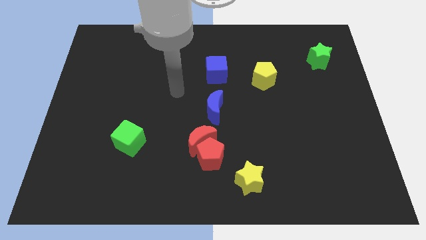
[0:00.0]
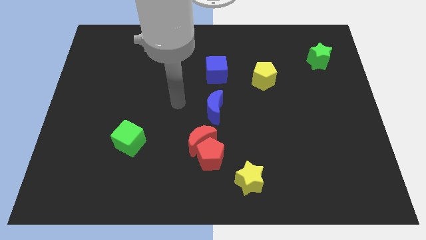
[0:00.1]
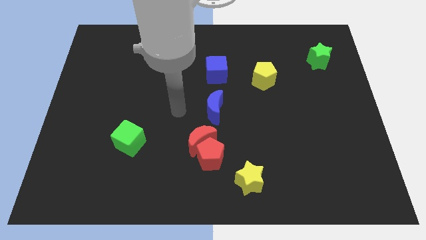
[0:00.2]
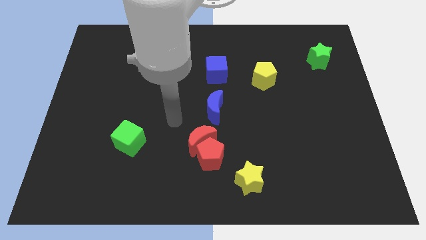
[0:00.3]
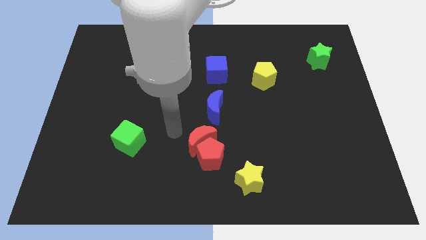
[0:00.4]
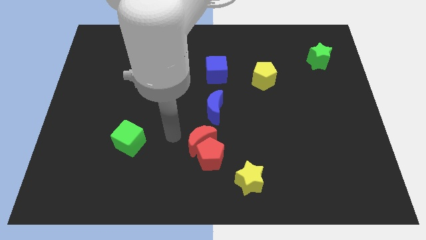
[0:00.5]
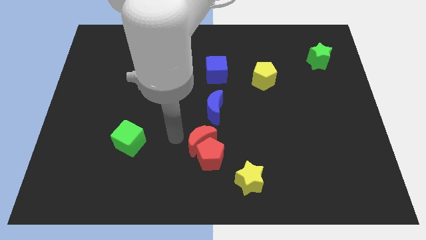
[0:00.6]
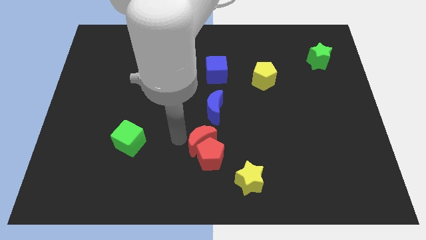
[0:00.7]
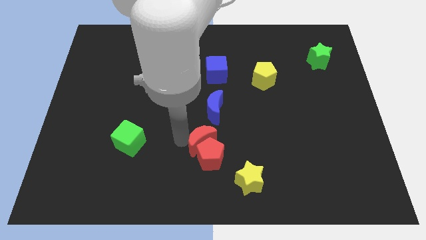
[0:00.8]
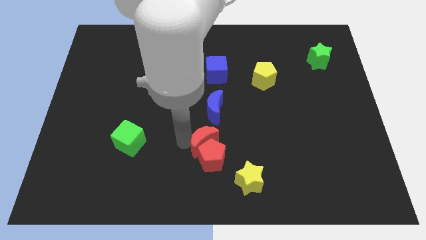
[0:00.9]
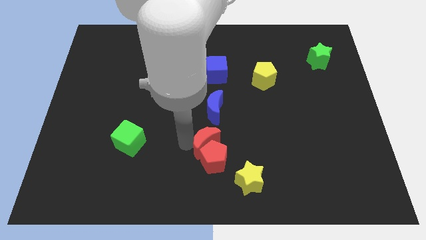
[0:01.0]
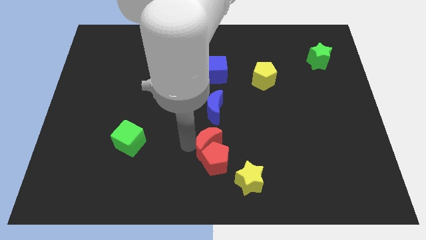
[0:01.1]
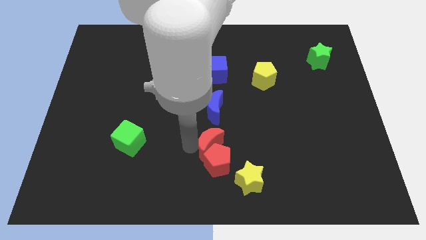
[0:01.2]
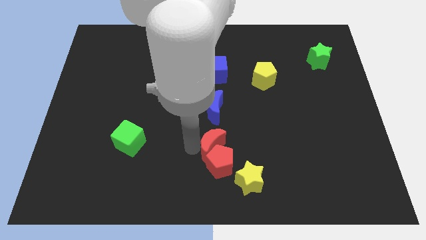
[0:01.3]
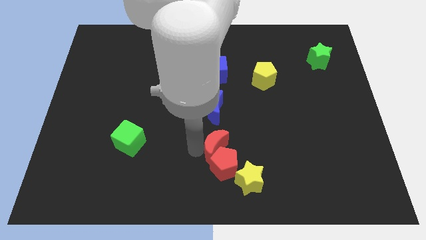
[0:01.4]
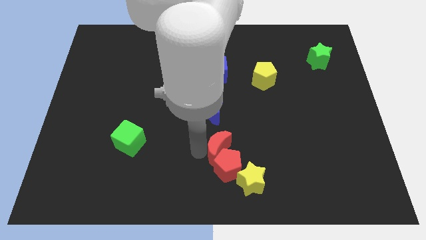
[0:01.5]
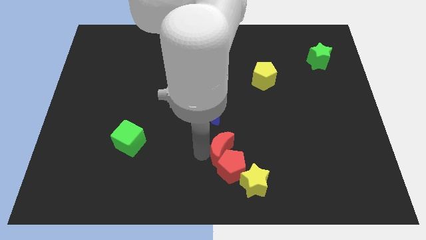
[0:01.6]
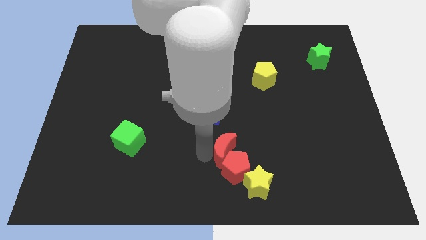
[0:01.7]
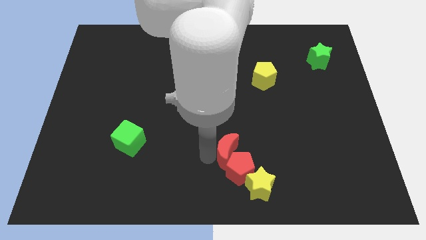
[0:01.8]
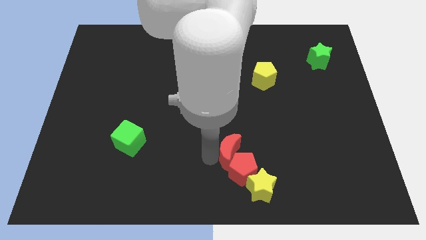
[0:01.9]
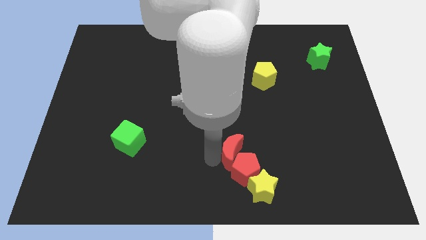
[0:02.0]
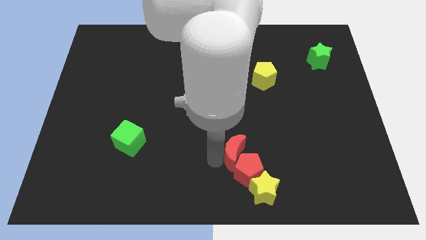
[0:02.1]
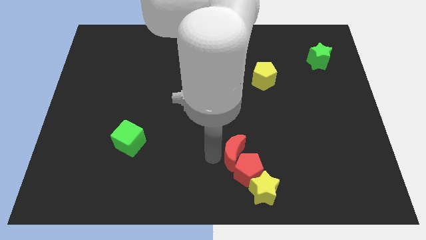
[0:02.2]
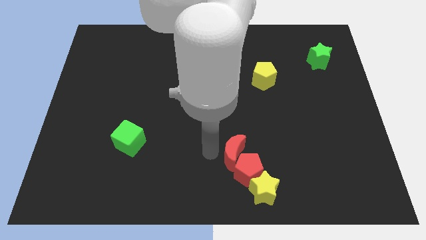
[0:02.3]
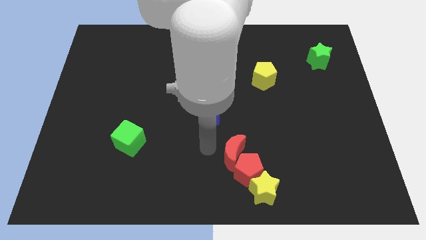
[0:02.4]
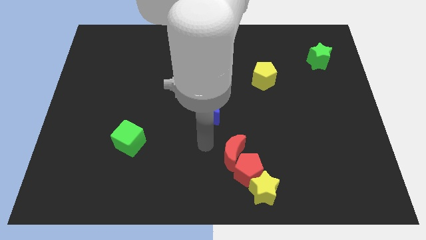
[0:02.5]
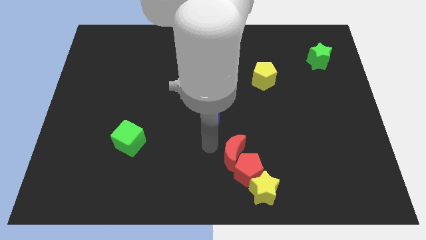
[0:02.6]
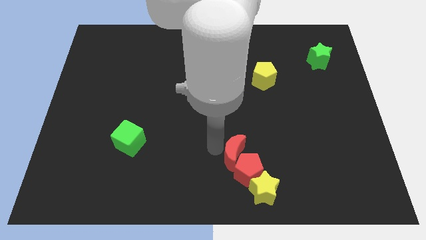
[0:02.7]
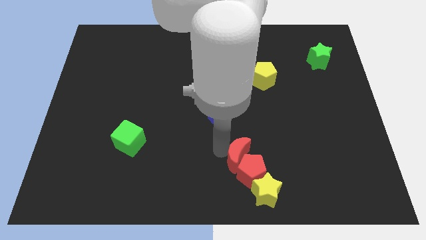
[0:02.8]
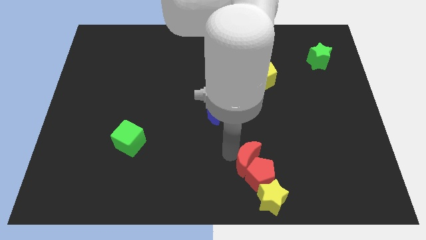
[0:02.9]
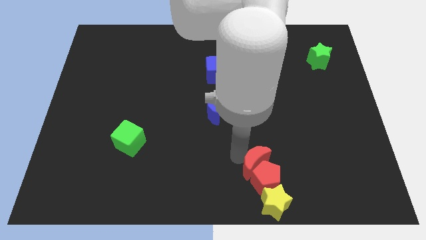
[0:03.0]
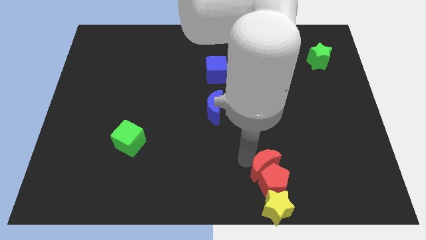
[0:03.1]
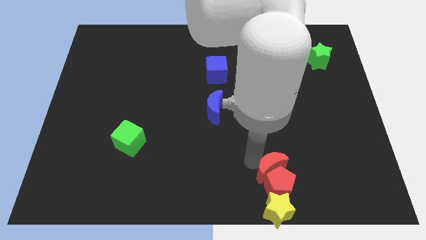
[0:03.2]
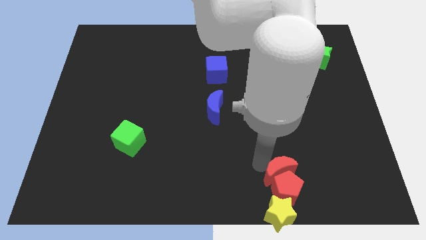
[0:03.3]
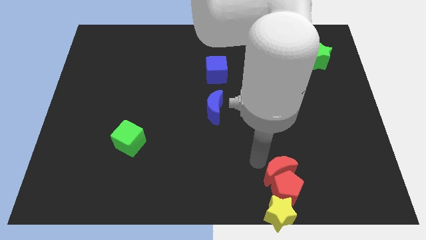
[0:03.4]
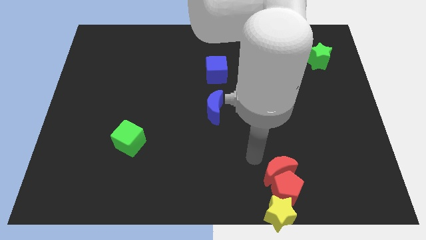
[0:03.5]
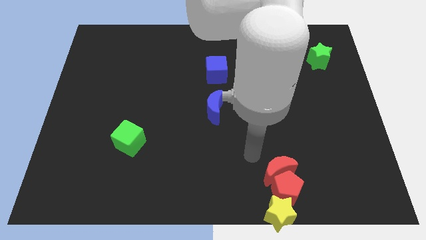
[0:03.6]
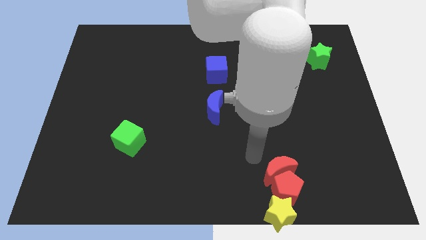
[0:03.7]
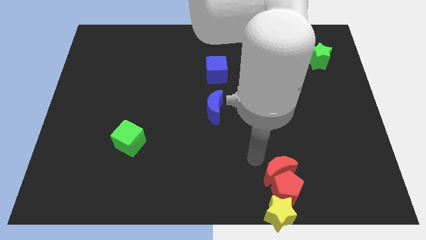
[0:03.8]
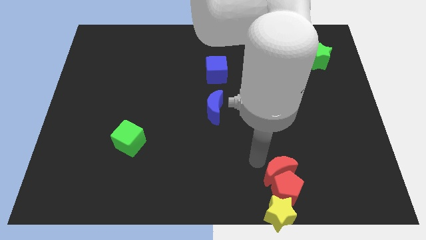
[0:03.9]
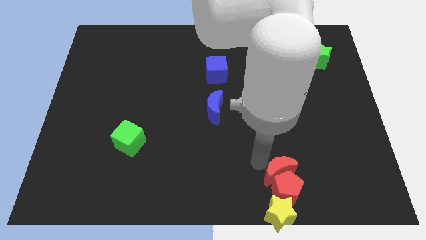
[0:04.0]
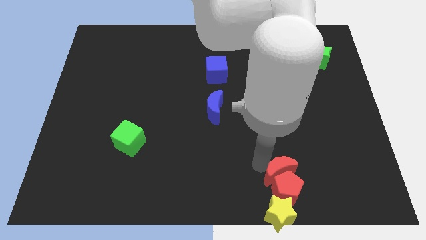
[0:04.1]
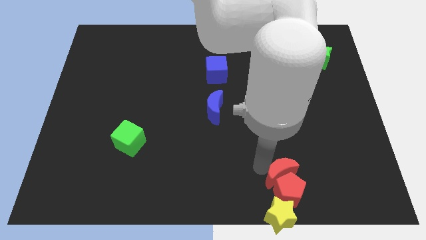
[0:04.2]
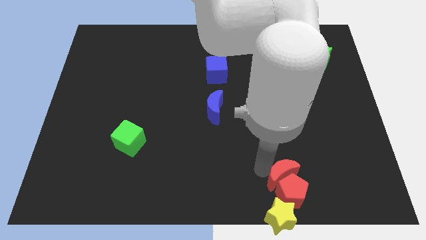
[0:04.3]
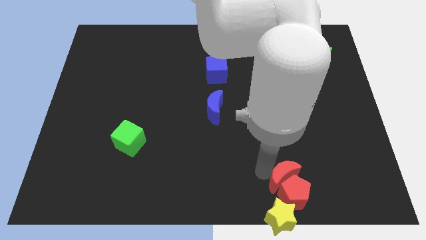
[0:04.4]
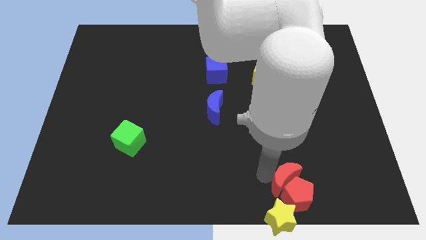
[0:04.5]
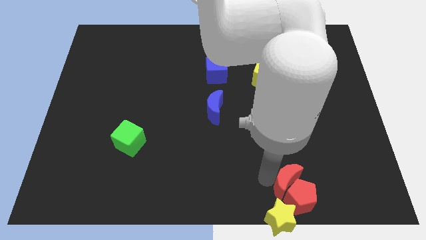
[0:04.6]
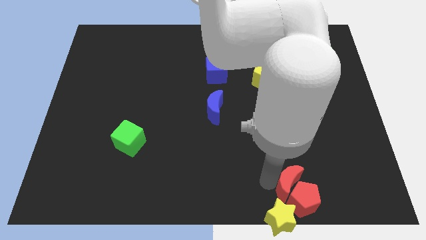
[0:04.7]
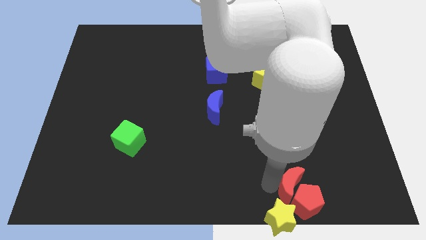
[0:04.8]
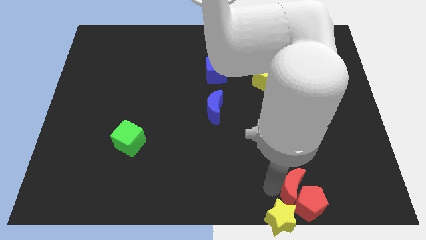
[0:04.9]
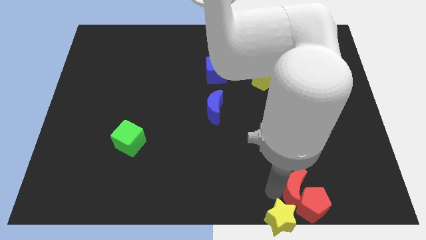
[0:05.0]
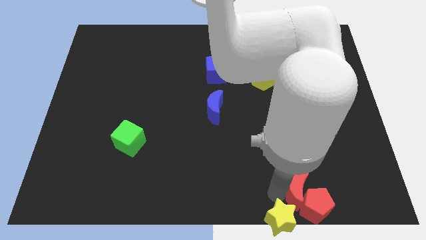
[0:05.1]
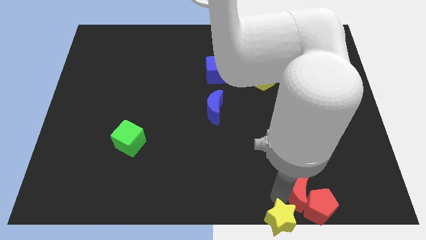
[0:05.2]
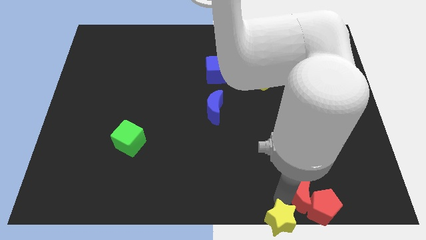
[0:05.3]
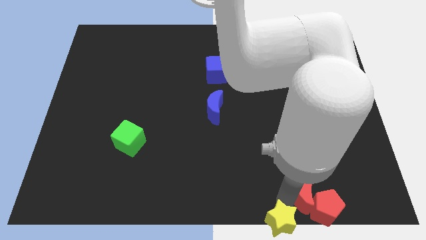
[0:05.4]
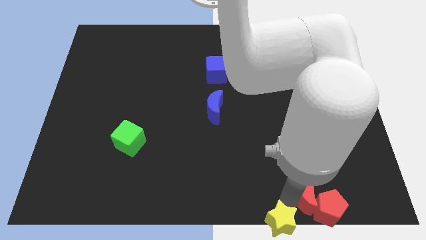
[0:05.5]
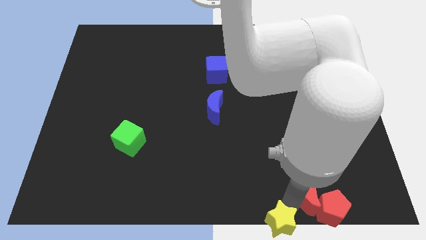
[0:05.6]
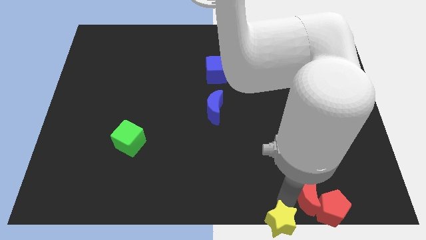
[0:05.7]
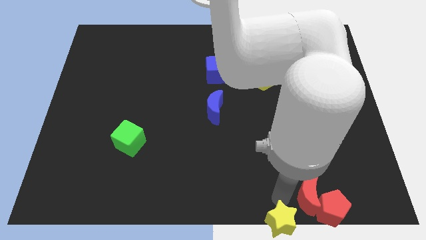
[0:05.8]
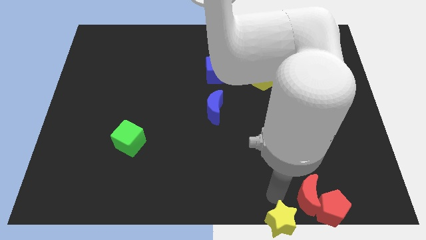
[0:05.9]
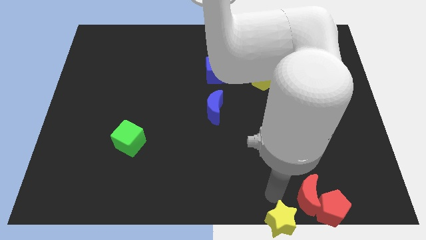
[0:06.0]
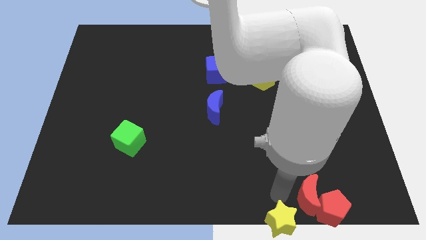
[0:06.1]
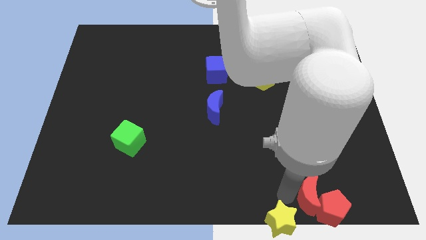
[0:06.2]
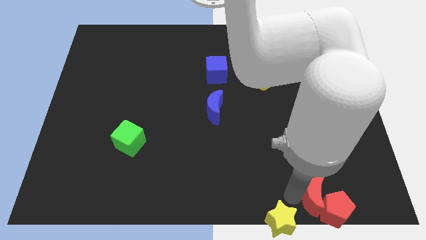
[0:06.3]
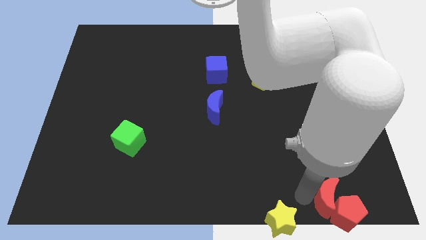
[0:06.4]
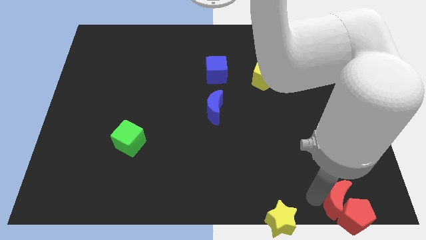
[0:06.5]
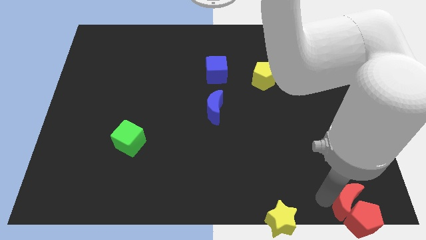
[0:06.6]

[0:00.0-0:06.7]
slide the red moon to the bottom right

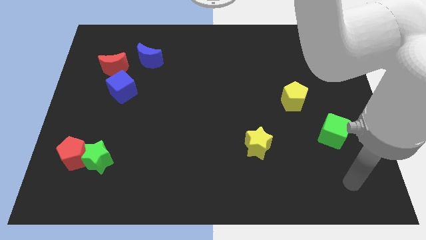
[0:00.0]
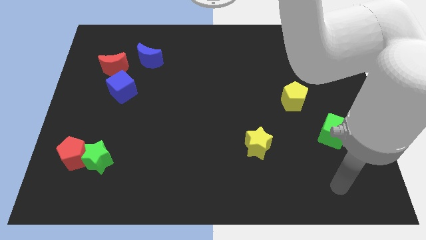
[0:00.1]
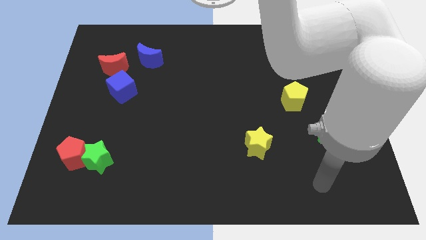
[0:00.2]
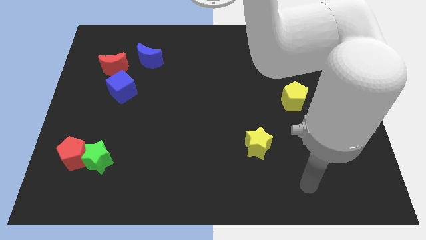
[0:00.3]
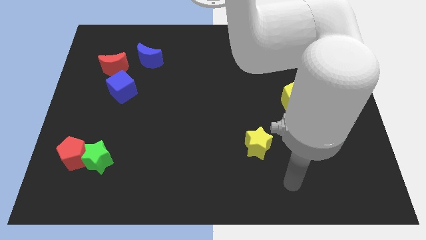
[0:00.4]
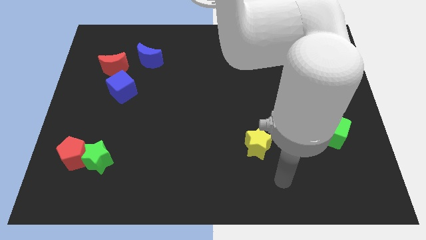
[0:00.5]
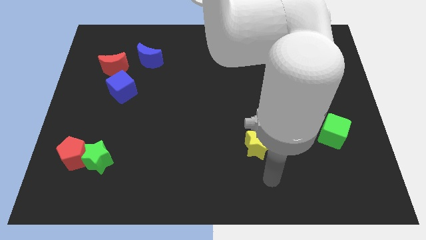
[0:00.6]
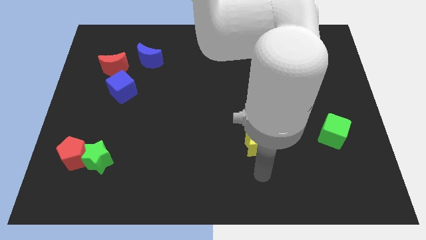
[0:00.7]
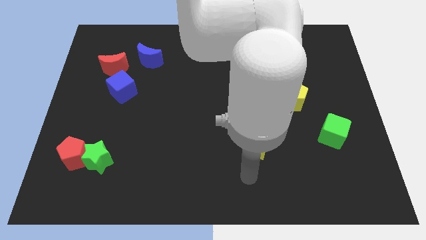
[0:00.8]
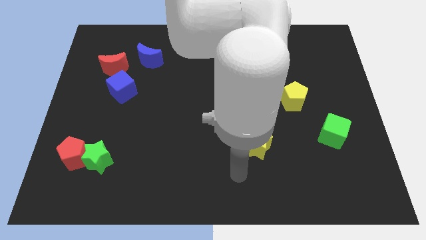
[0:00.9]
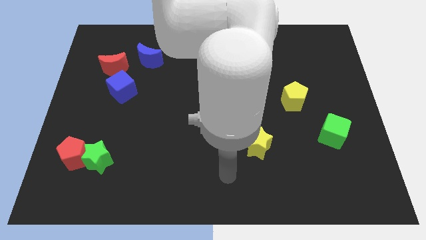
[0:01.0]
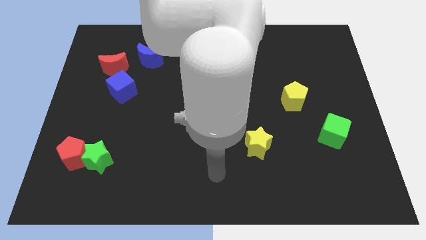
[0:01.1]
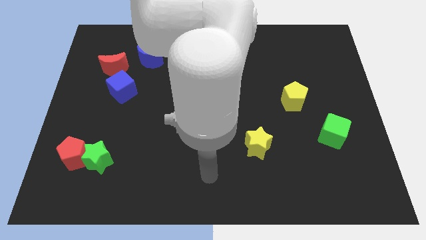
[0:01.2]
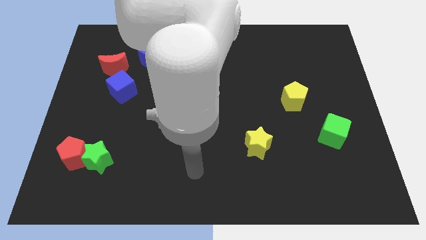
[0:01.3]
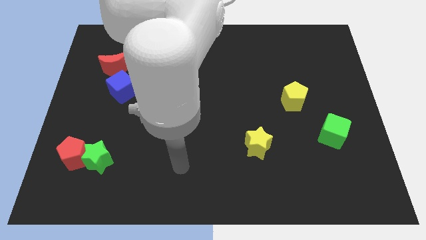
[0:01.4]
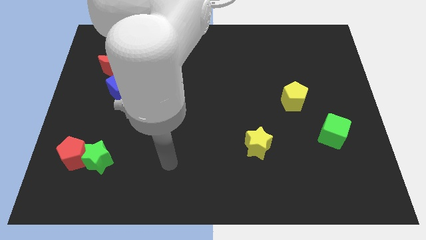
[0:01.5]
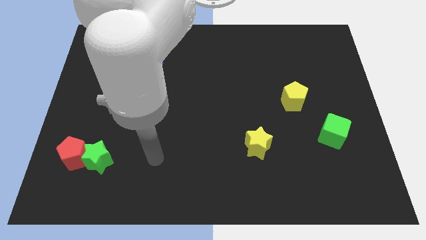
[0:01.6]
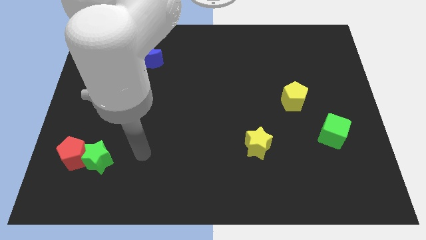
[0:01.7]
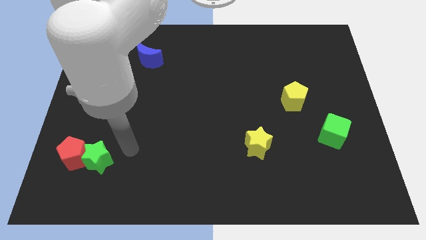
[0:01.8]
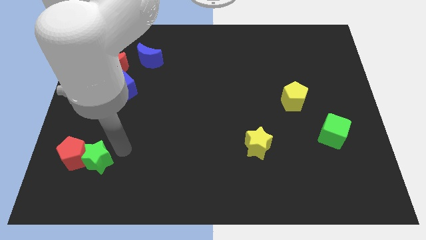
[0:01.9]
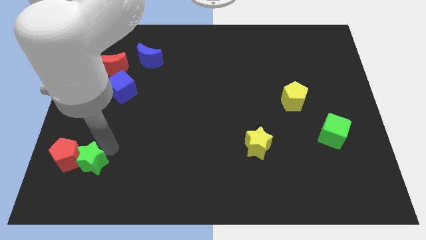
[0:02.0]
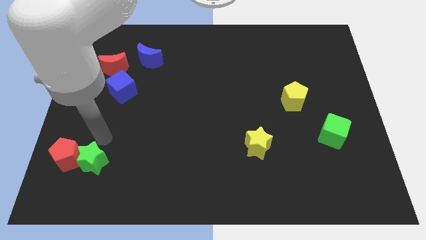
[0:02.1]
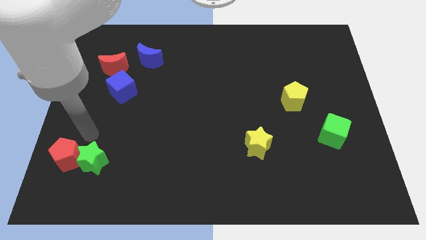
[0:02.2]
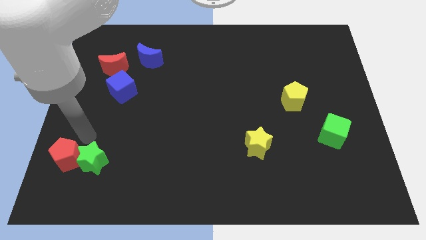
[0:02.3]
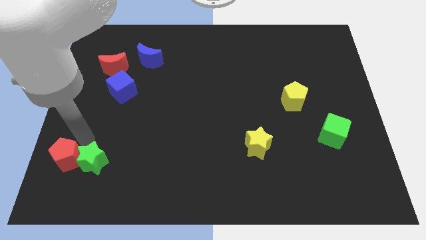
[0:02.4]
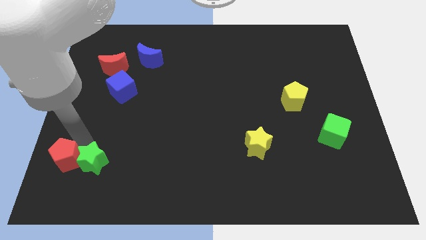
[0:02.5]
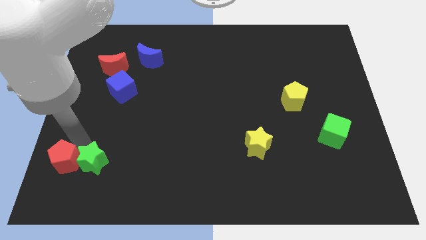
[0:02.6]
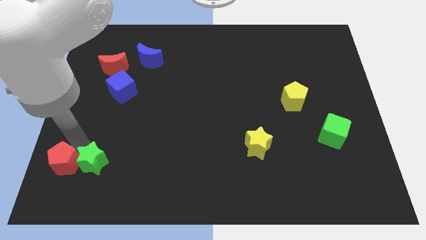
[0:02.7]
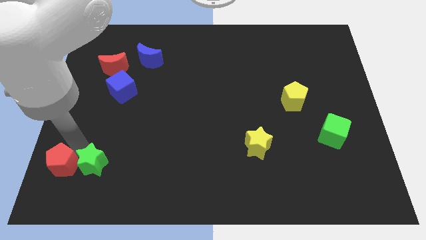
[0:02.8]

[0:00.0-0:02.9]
move the red pentagon to the lower left corner
